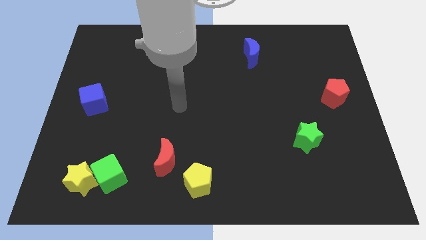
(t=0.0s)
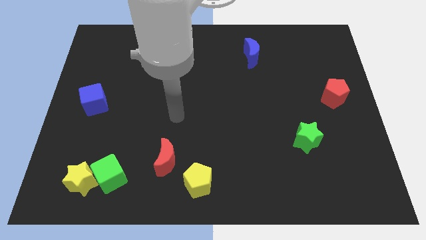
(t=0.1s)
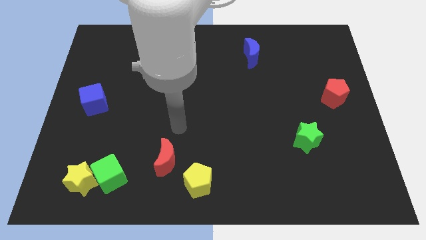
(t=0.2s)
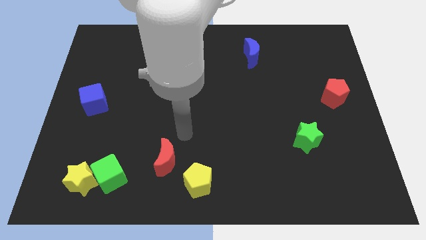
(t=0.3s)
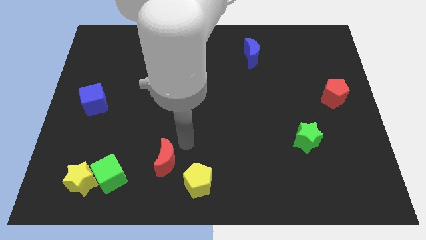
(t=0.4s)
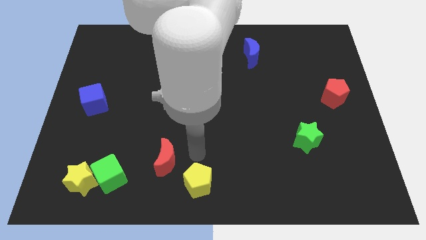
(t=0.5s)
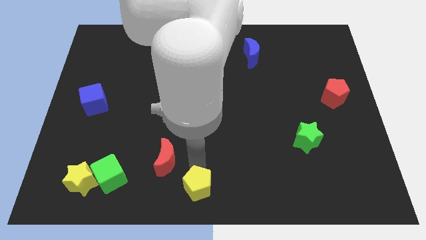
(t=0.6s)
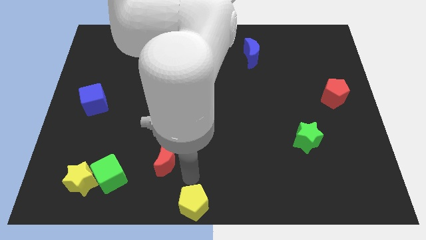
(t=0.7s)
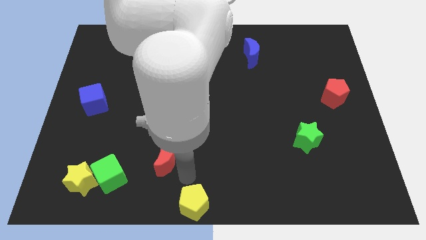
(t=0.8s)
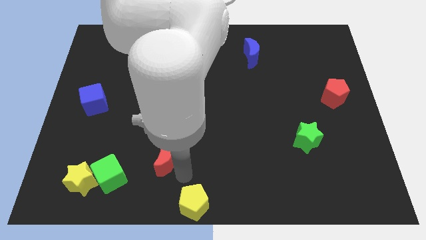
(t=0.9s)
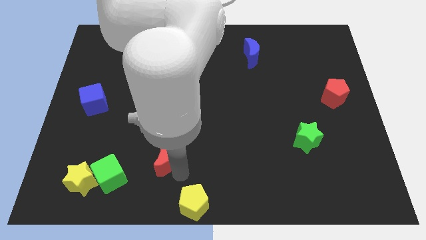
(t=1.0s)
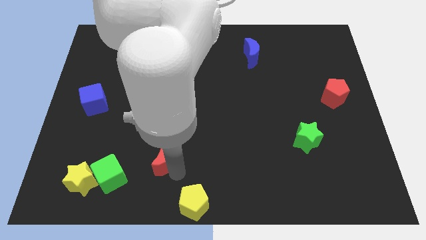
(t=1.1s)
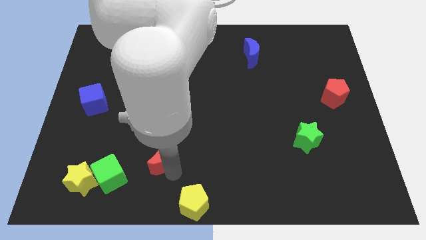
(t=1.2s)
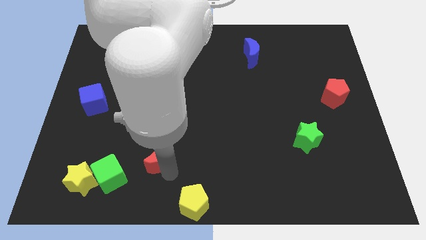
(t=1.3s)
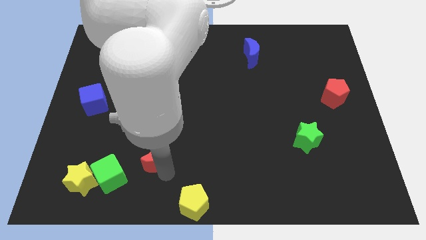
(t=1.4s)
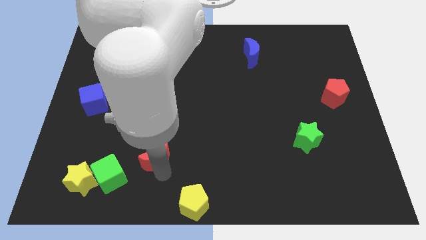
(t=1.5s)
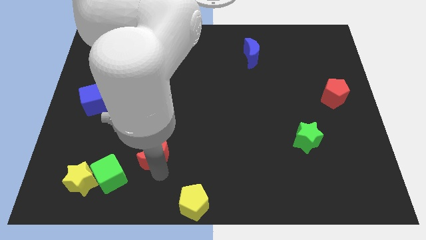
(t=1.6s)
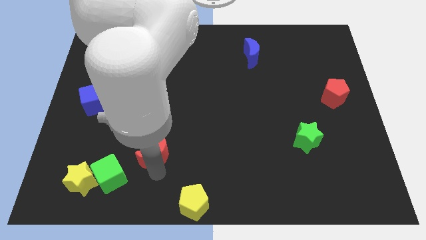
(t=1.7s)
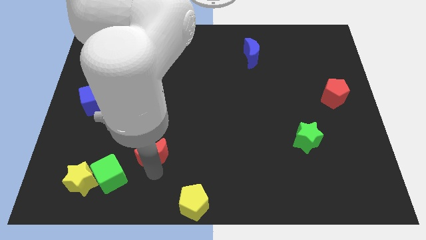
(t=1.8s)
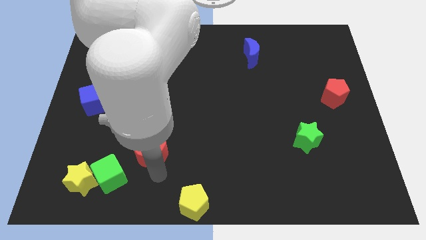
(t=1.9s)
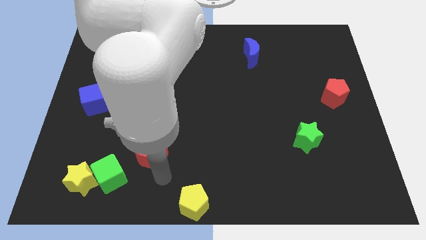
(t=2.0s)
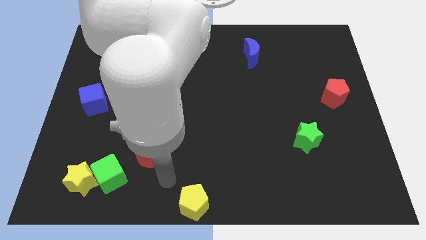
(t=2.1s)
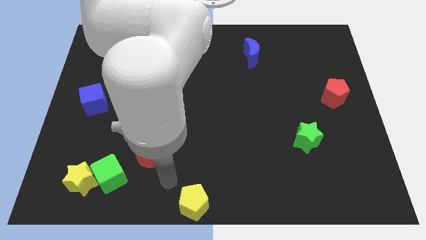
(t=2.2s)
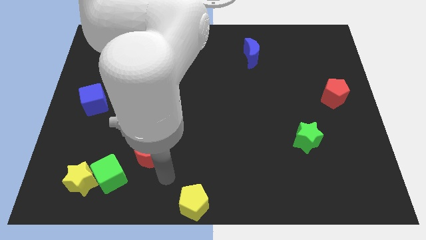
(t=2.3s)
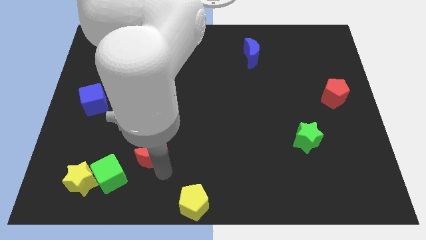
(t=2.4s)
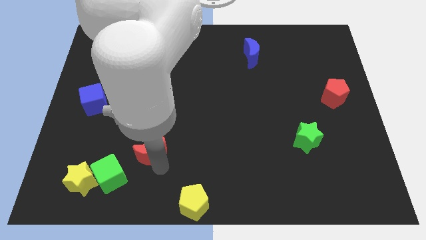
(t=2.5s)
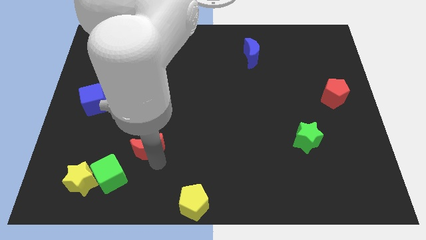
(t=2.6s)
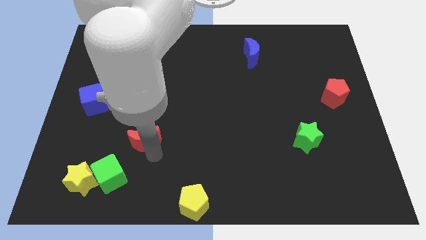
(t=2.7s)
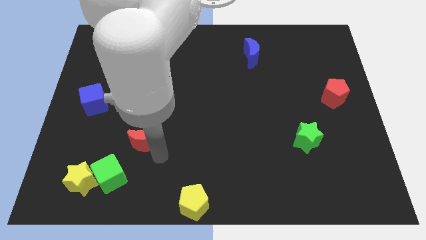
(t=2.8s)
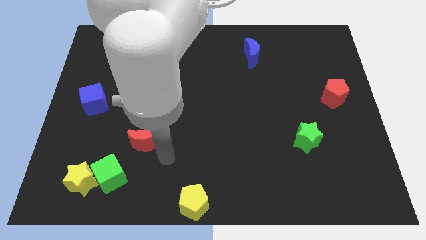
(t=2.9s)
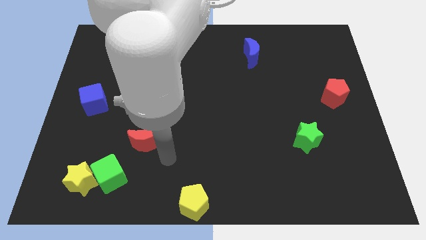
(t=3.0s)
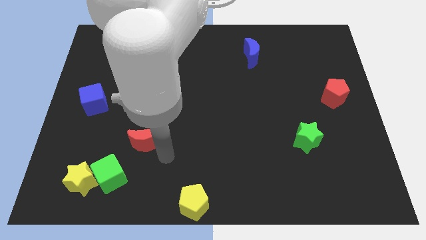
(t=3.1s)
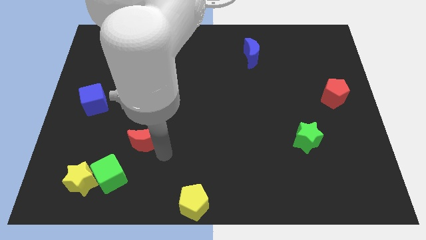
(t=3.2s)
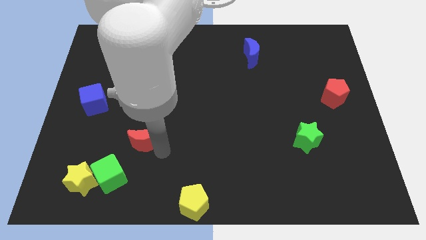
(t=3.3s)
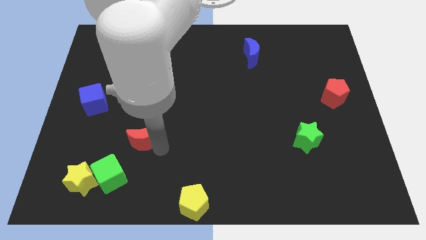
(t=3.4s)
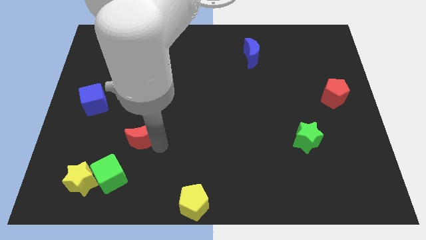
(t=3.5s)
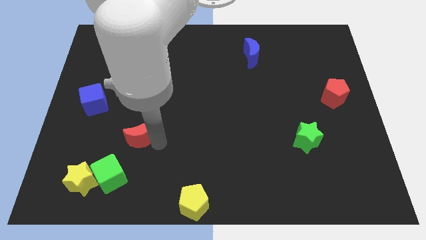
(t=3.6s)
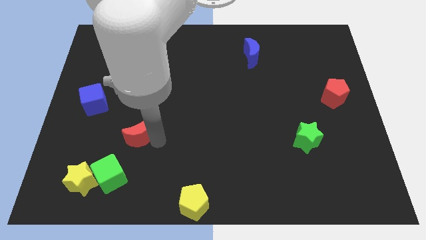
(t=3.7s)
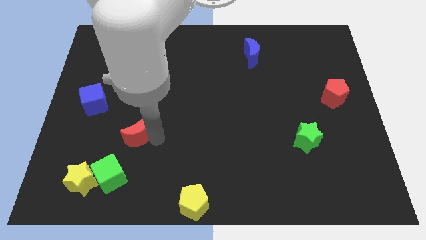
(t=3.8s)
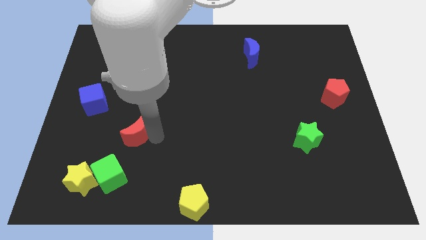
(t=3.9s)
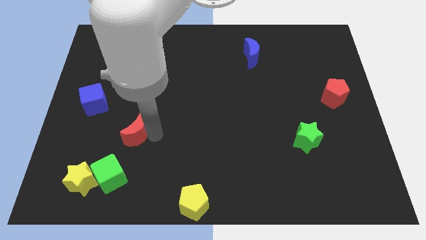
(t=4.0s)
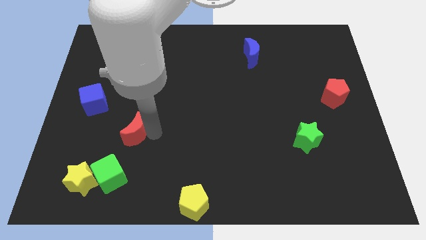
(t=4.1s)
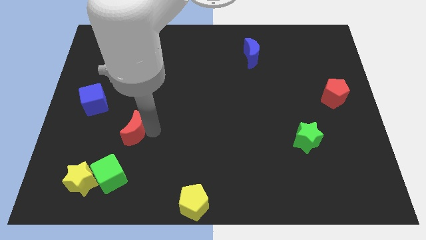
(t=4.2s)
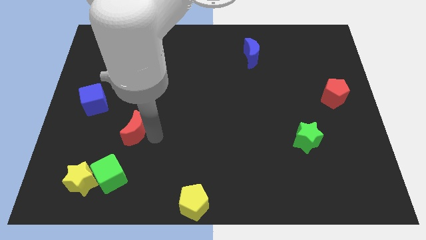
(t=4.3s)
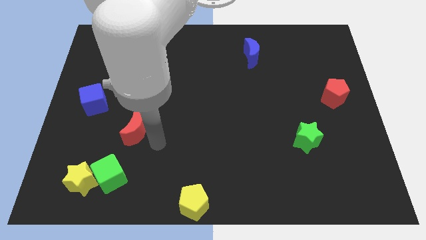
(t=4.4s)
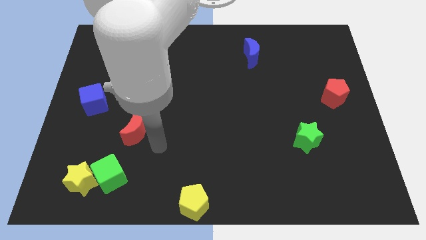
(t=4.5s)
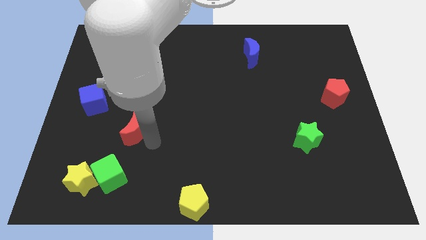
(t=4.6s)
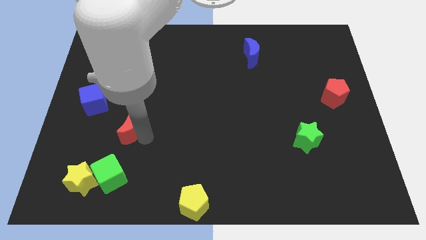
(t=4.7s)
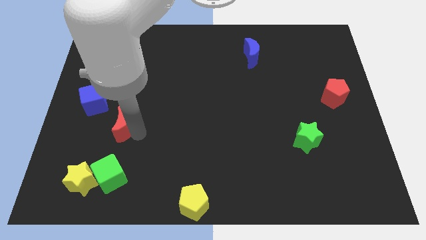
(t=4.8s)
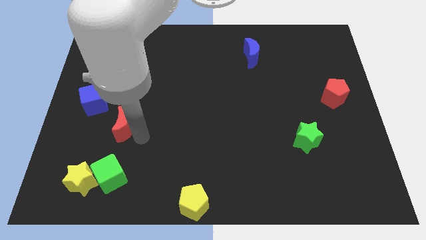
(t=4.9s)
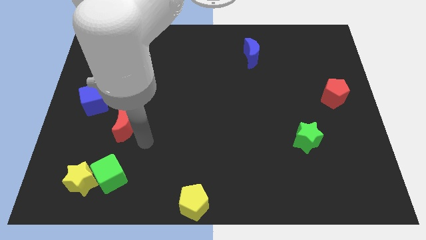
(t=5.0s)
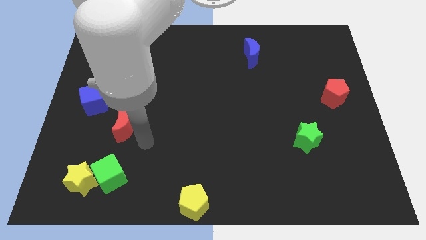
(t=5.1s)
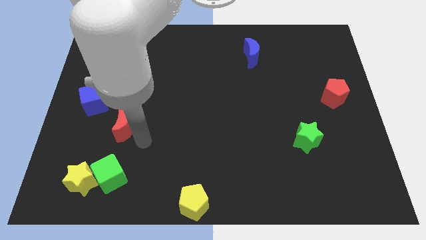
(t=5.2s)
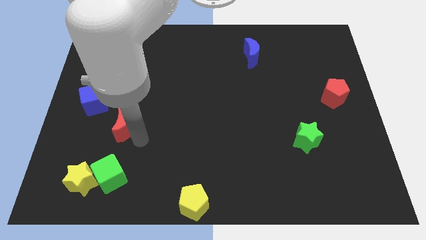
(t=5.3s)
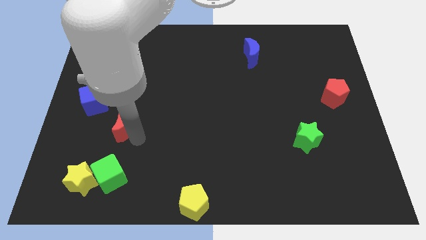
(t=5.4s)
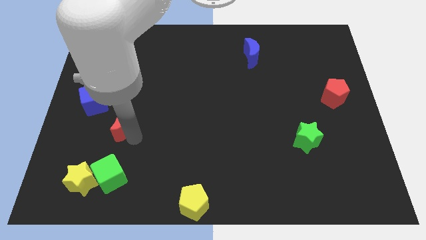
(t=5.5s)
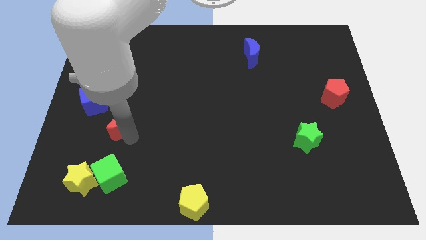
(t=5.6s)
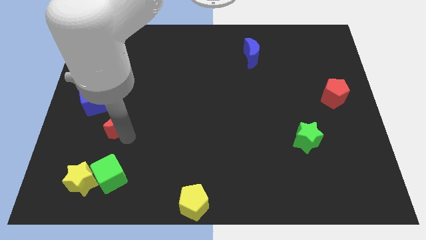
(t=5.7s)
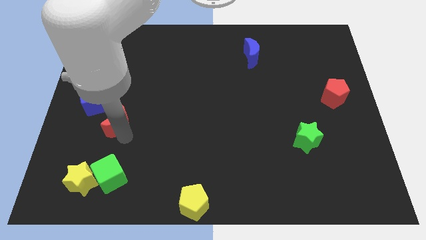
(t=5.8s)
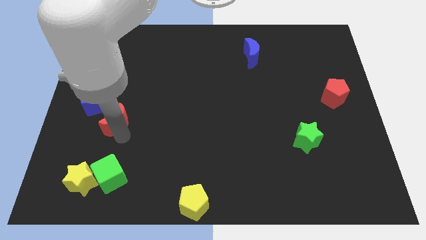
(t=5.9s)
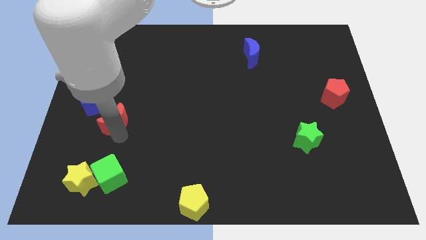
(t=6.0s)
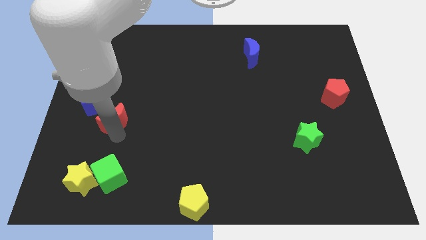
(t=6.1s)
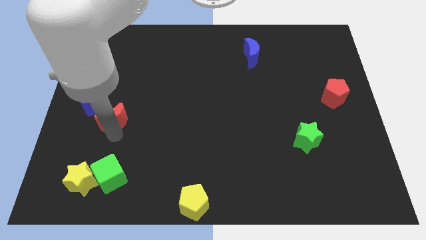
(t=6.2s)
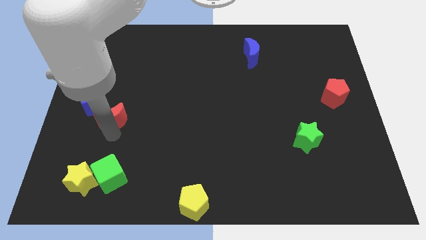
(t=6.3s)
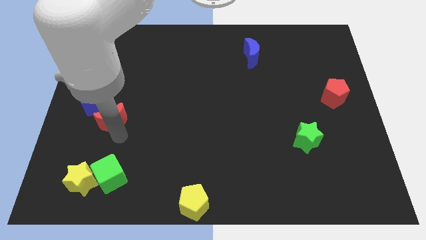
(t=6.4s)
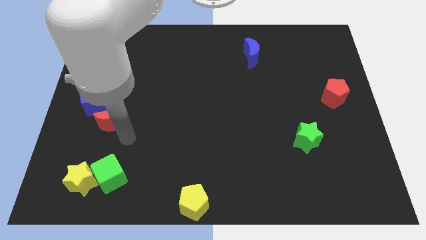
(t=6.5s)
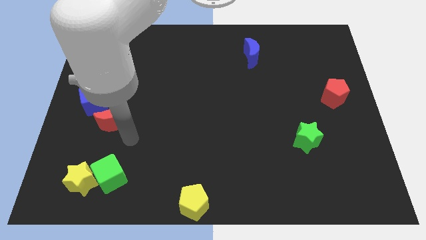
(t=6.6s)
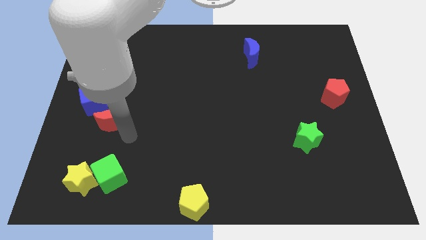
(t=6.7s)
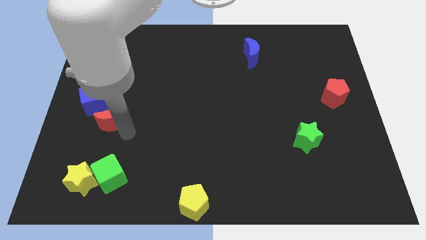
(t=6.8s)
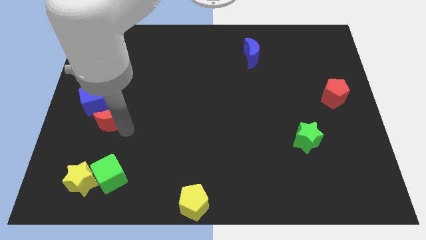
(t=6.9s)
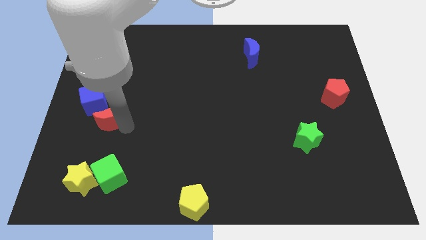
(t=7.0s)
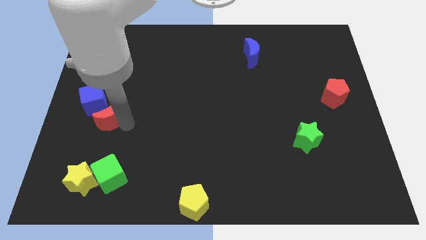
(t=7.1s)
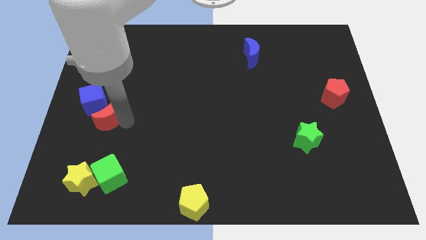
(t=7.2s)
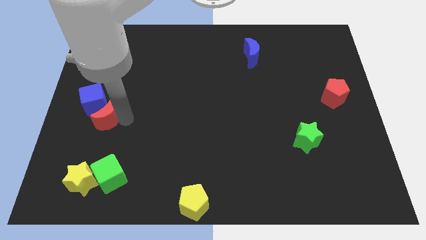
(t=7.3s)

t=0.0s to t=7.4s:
push the red moon close to the blue cube

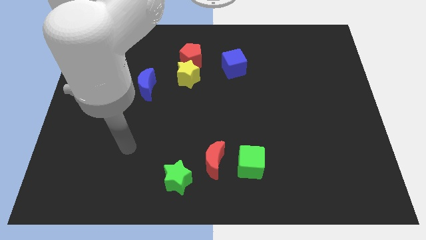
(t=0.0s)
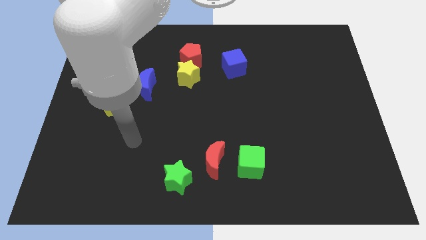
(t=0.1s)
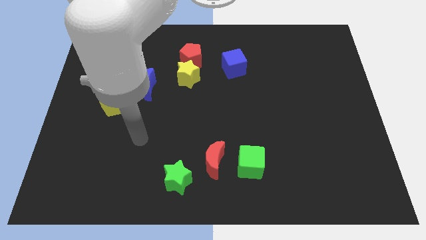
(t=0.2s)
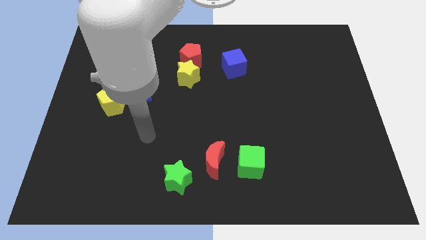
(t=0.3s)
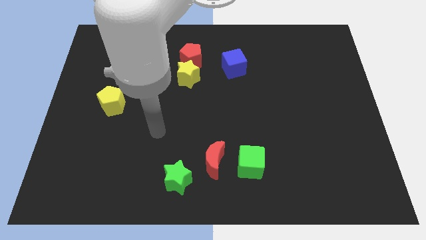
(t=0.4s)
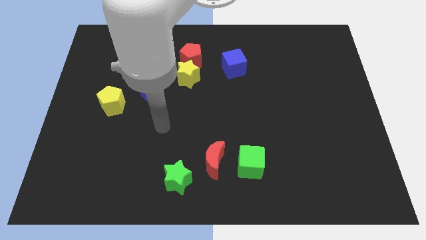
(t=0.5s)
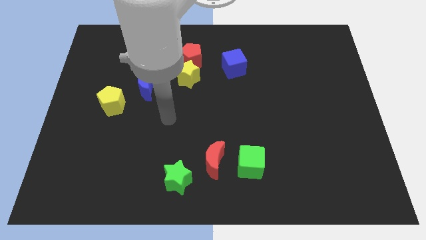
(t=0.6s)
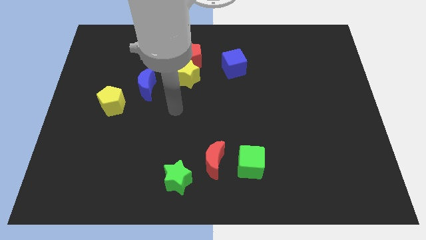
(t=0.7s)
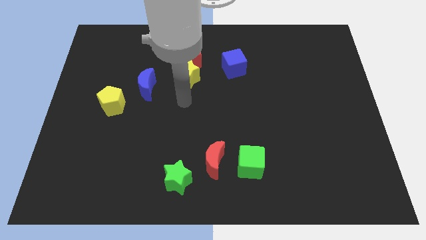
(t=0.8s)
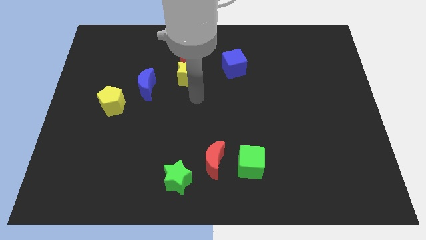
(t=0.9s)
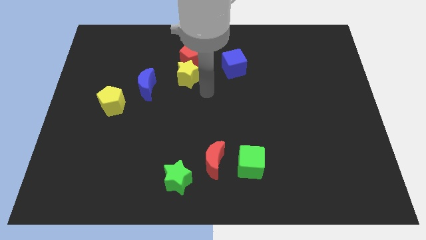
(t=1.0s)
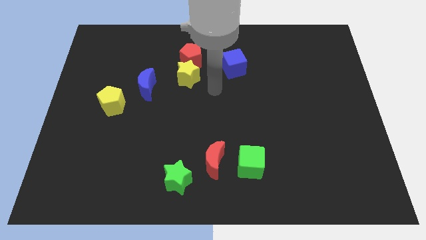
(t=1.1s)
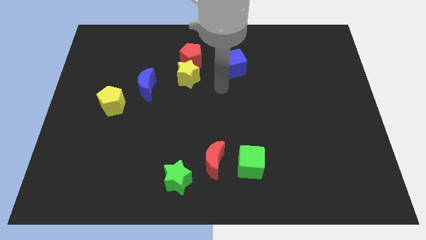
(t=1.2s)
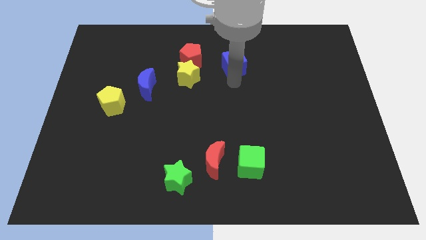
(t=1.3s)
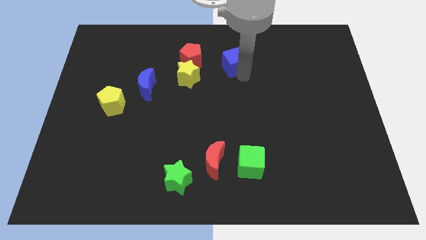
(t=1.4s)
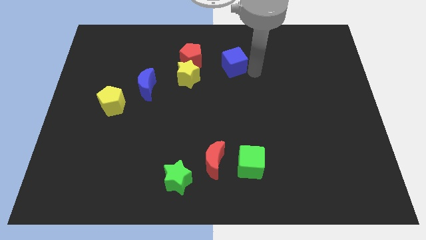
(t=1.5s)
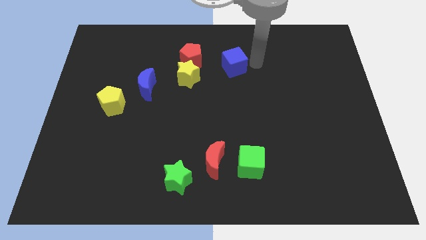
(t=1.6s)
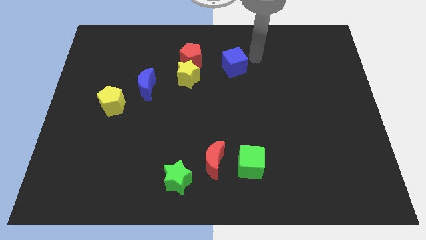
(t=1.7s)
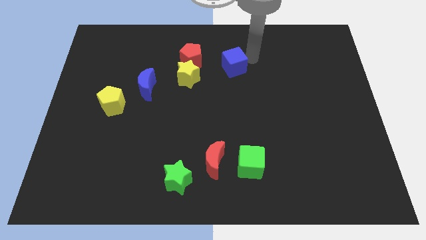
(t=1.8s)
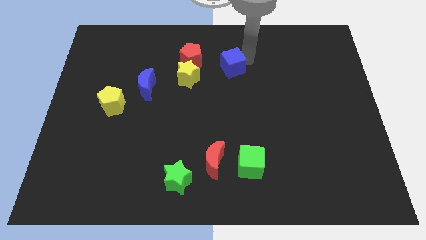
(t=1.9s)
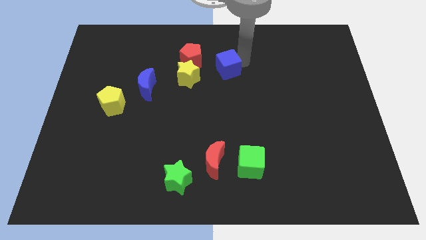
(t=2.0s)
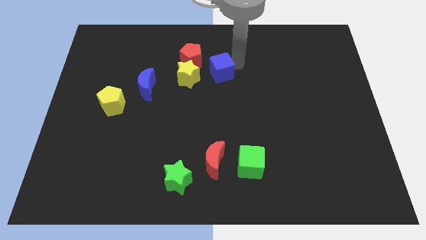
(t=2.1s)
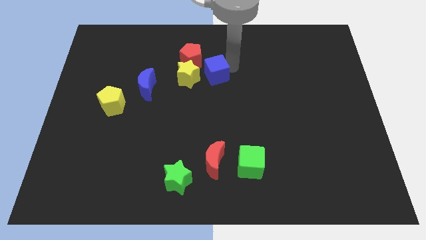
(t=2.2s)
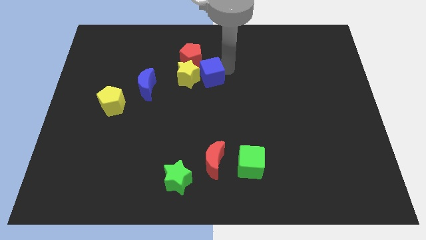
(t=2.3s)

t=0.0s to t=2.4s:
put the blue cube towards the yellow star
